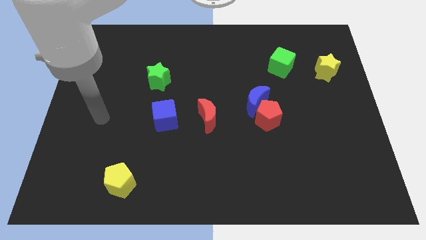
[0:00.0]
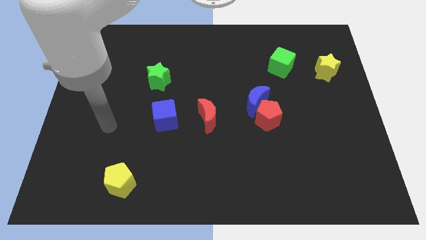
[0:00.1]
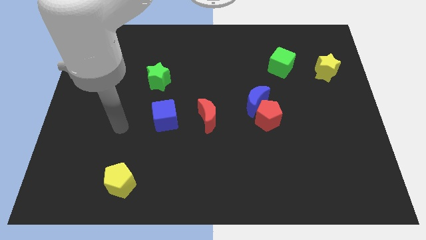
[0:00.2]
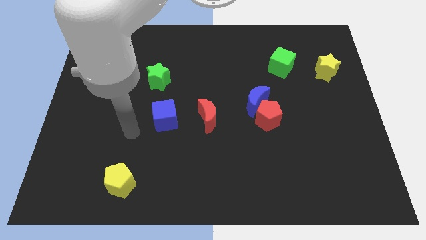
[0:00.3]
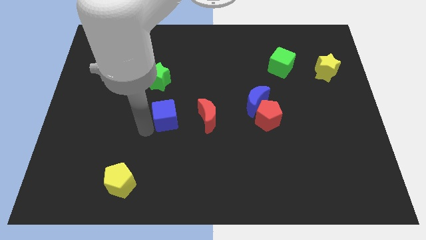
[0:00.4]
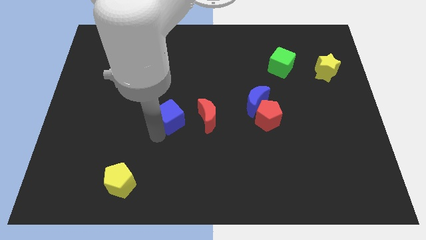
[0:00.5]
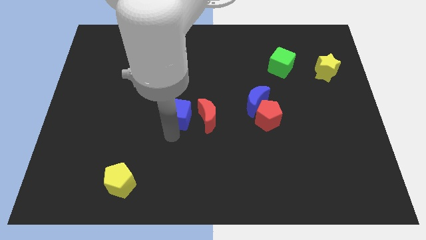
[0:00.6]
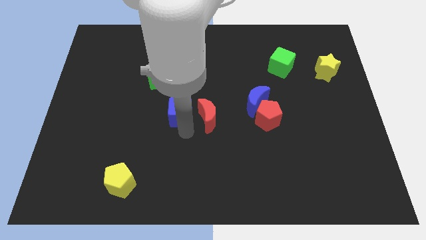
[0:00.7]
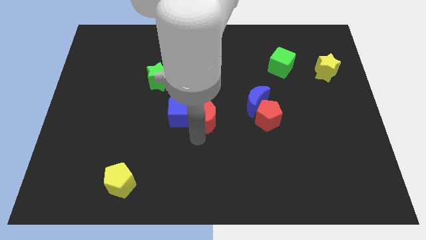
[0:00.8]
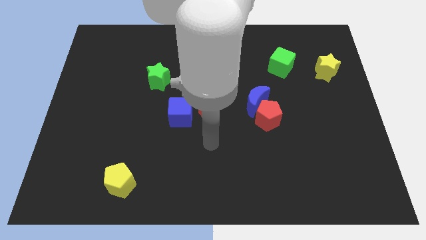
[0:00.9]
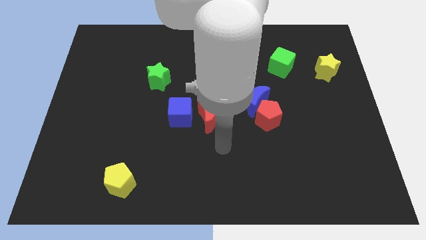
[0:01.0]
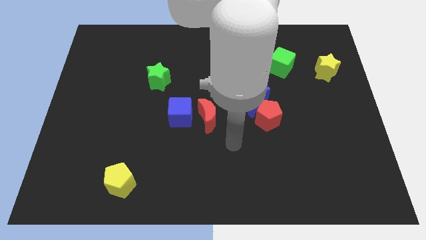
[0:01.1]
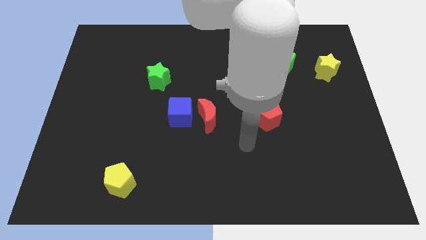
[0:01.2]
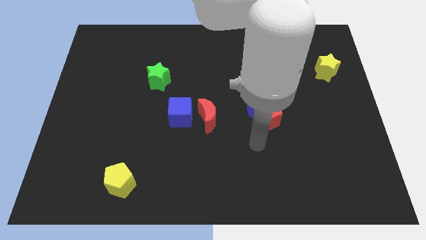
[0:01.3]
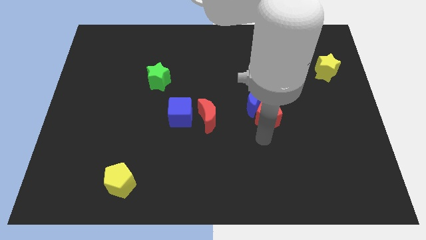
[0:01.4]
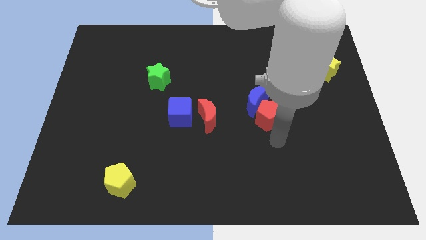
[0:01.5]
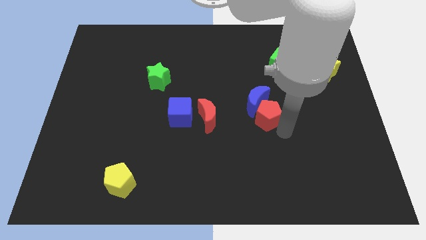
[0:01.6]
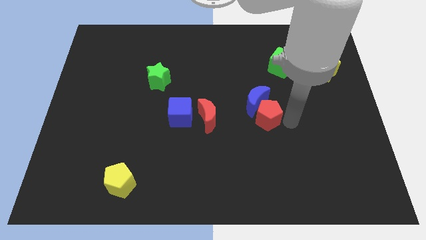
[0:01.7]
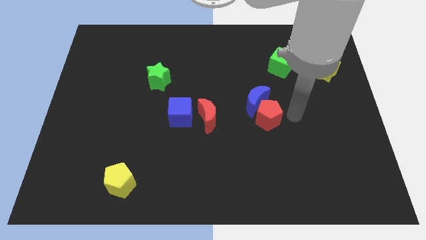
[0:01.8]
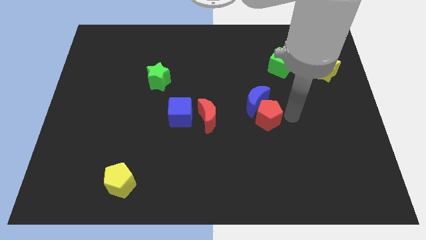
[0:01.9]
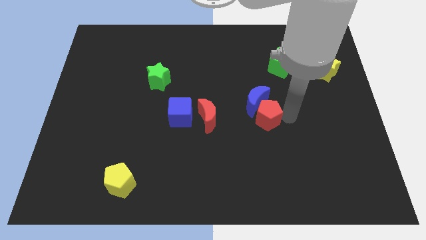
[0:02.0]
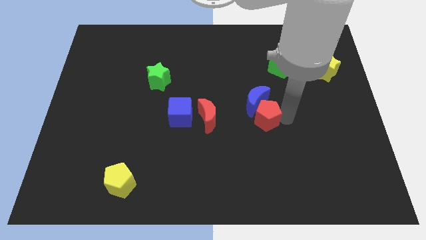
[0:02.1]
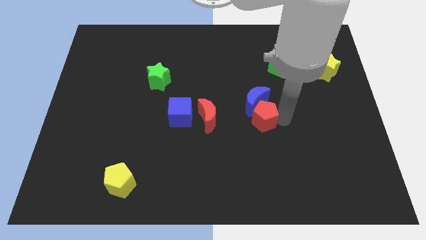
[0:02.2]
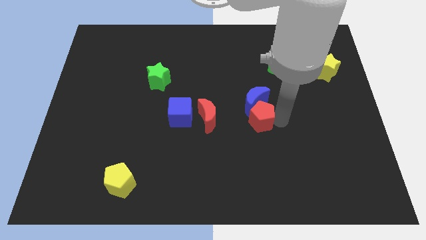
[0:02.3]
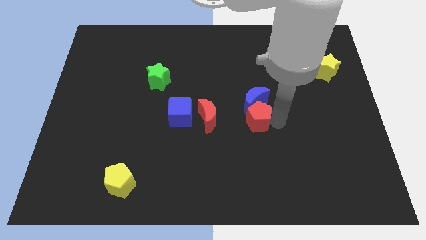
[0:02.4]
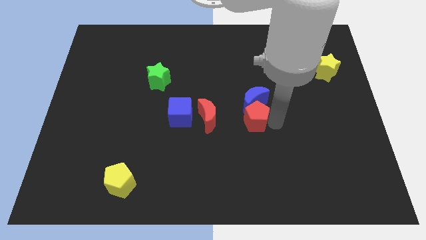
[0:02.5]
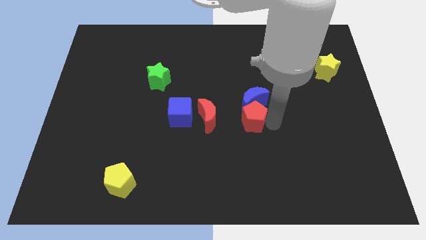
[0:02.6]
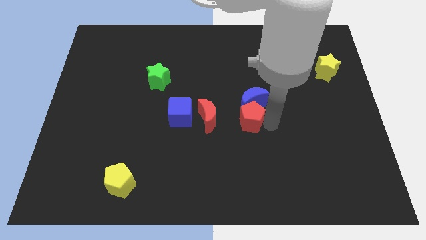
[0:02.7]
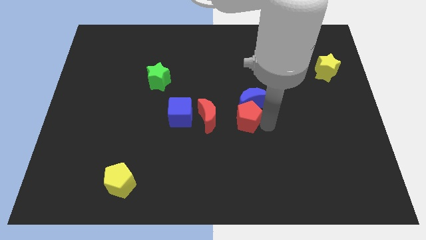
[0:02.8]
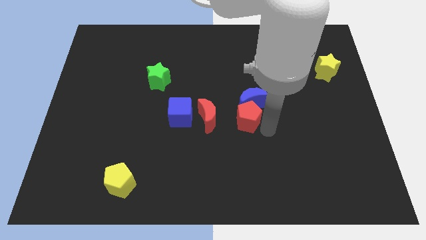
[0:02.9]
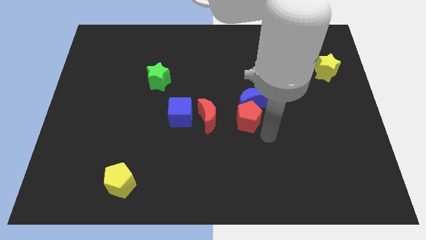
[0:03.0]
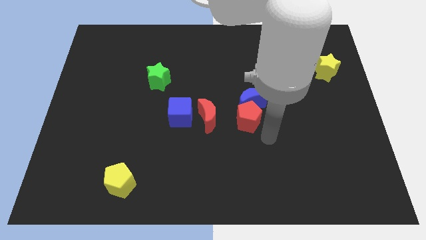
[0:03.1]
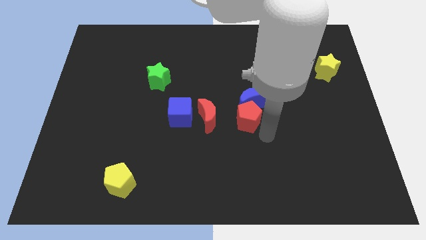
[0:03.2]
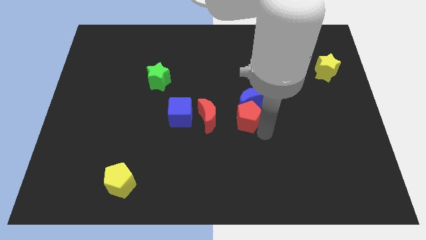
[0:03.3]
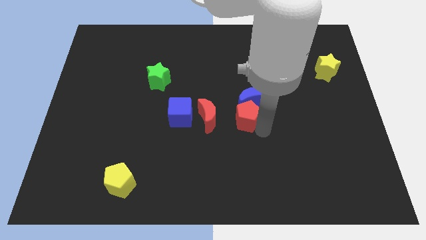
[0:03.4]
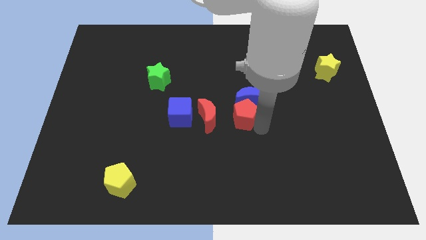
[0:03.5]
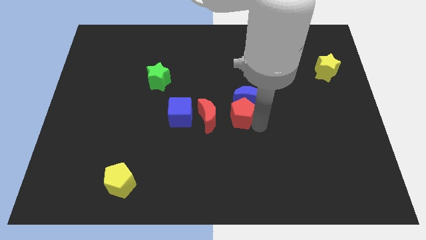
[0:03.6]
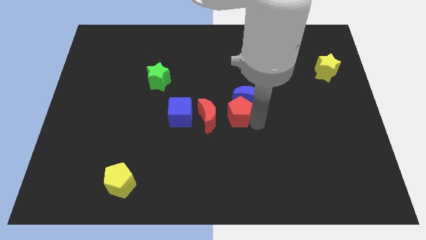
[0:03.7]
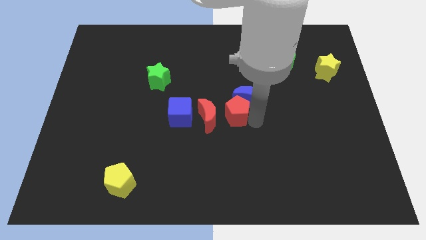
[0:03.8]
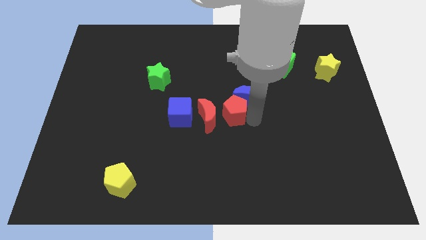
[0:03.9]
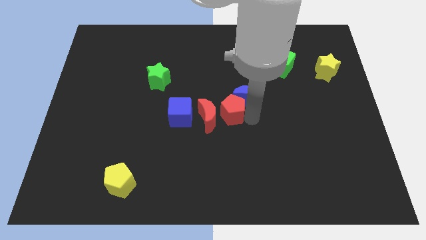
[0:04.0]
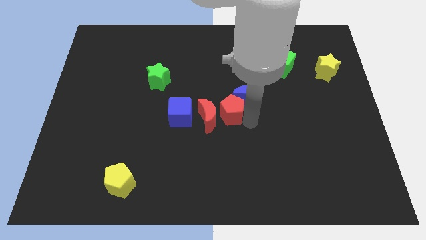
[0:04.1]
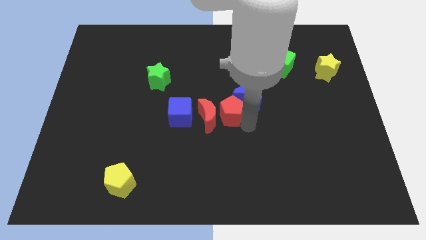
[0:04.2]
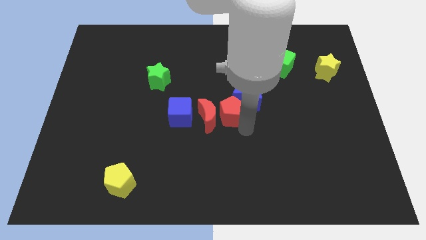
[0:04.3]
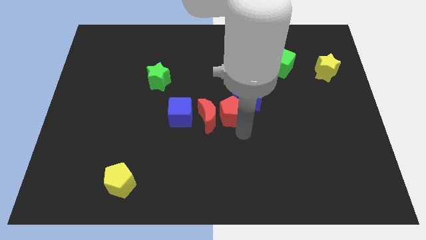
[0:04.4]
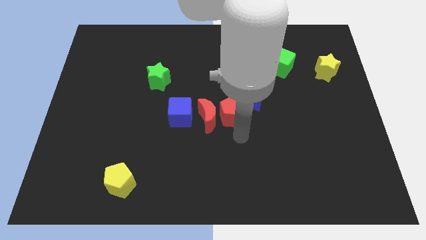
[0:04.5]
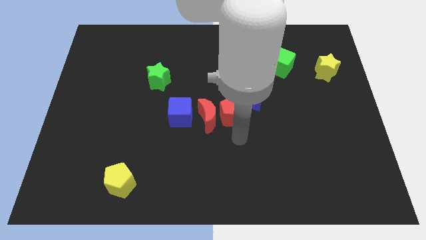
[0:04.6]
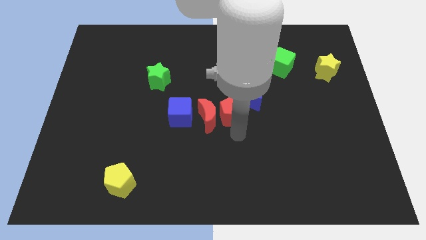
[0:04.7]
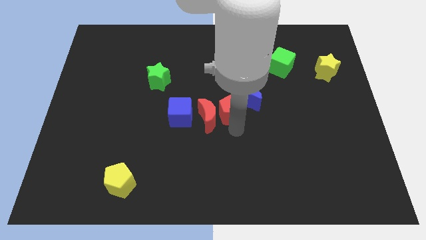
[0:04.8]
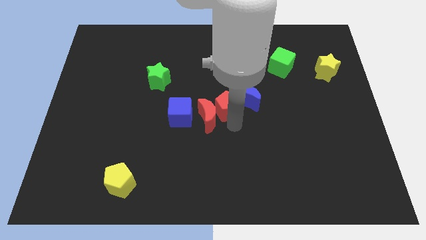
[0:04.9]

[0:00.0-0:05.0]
push the red pentagon a little bit diagonally up and left

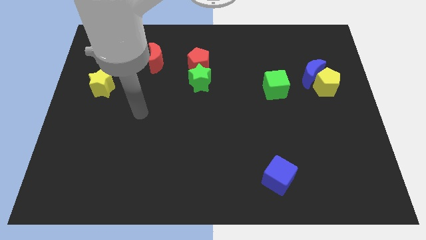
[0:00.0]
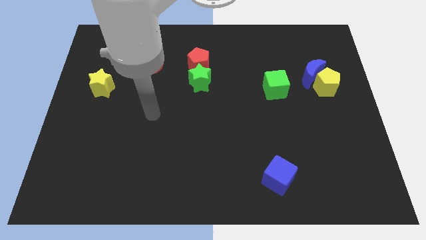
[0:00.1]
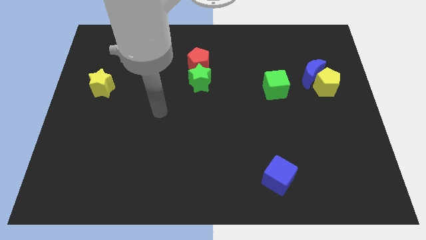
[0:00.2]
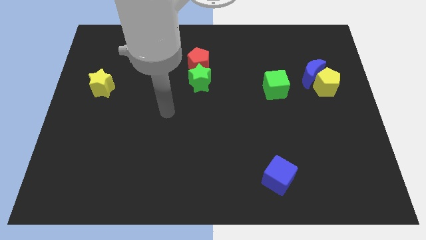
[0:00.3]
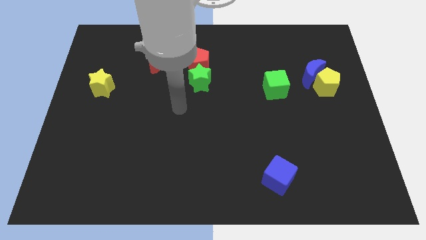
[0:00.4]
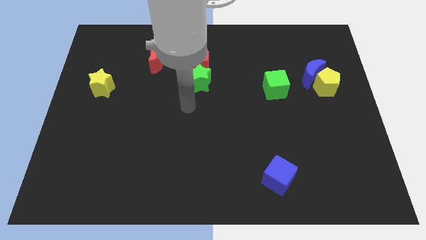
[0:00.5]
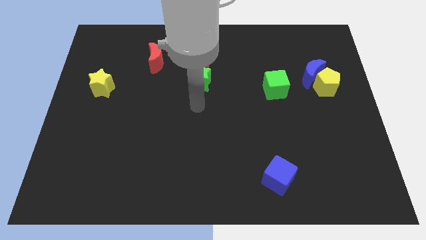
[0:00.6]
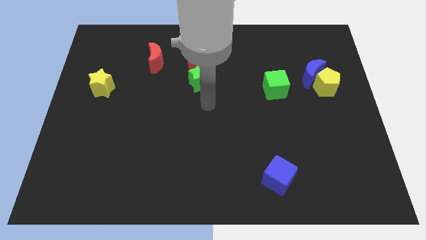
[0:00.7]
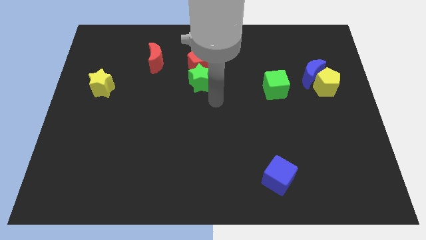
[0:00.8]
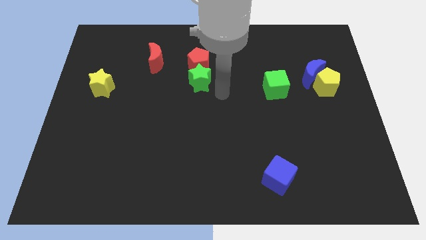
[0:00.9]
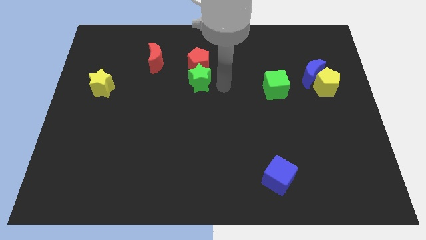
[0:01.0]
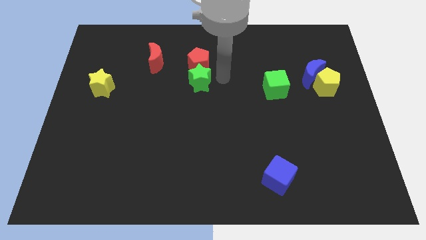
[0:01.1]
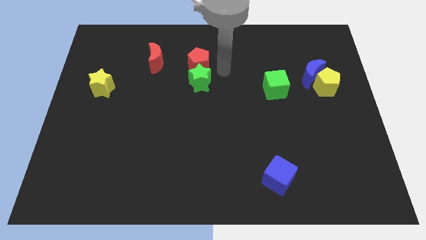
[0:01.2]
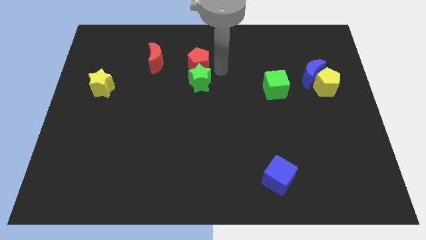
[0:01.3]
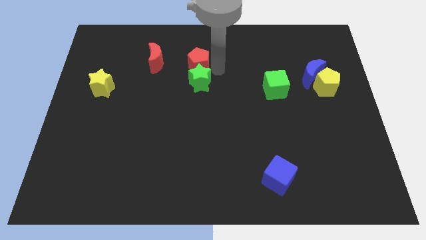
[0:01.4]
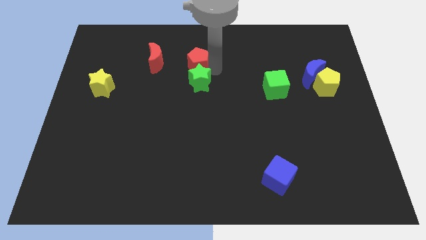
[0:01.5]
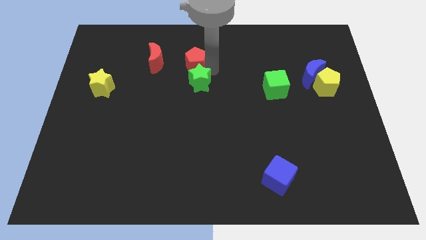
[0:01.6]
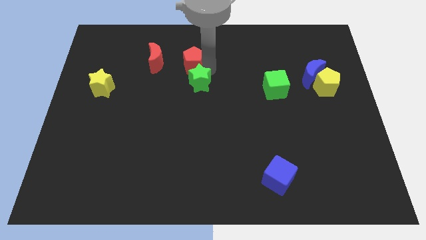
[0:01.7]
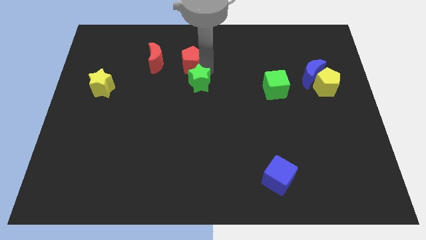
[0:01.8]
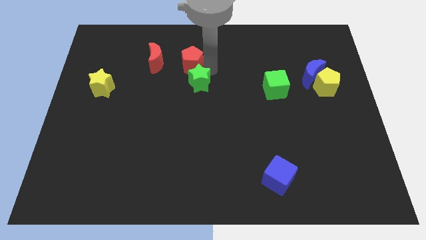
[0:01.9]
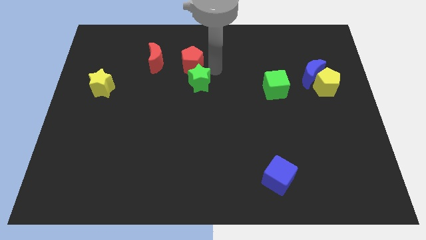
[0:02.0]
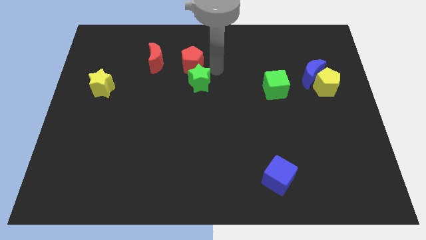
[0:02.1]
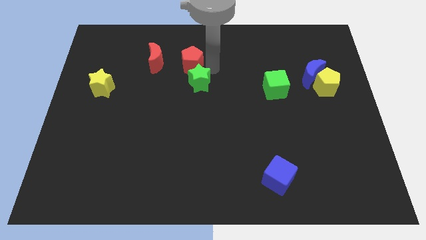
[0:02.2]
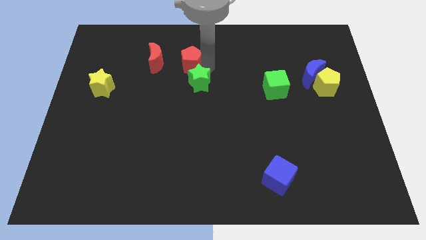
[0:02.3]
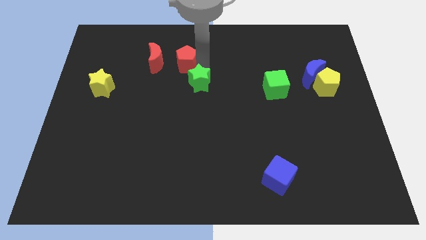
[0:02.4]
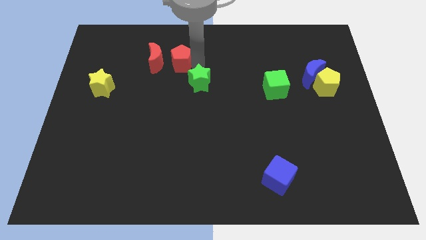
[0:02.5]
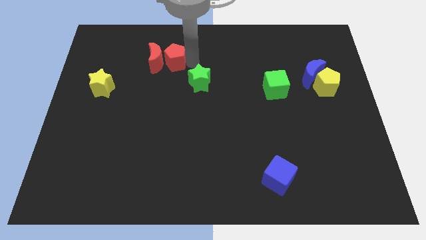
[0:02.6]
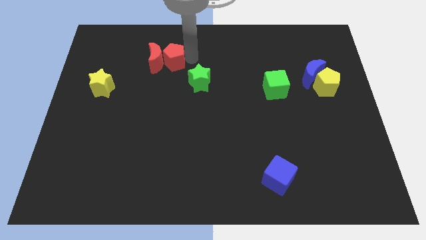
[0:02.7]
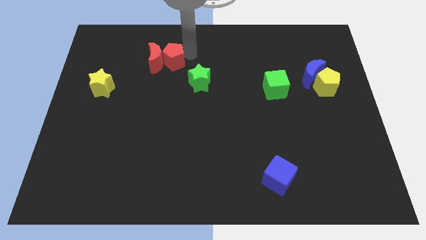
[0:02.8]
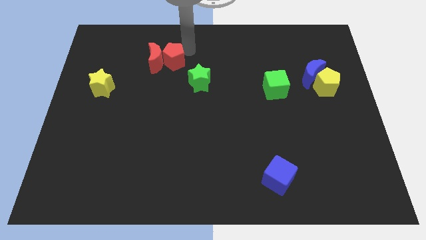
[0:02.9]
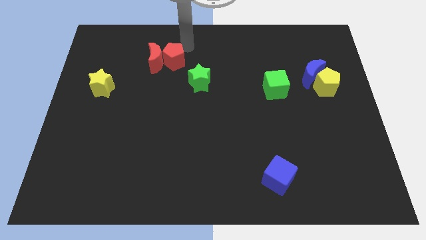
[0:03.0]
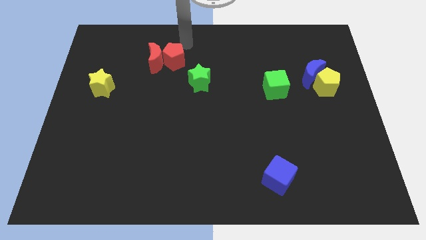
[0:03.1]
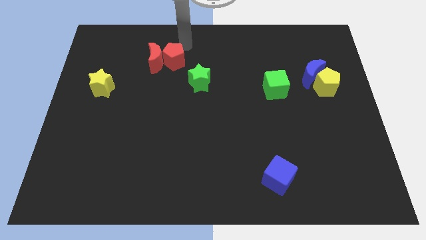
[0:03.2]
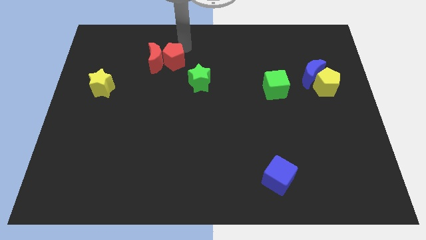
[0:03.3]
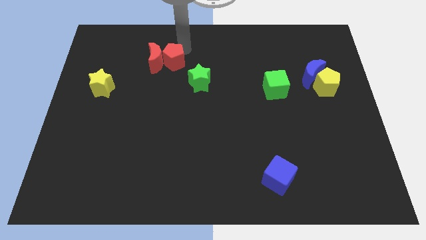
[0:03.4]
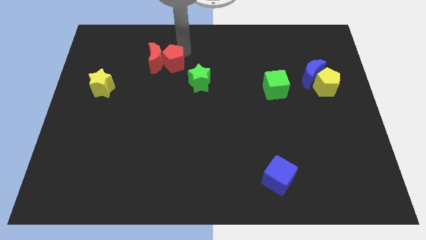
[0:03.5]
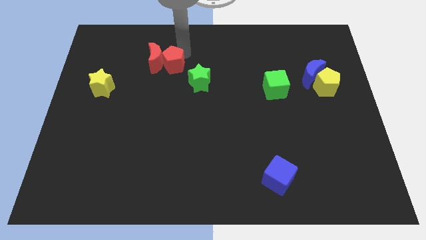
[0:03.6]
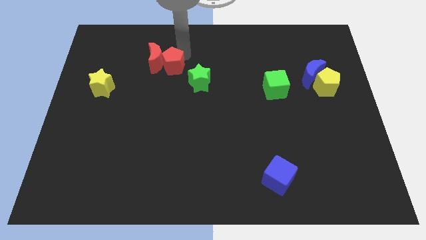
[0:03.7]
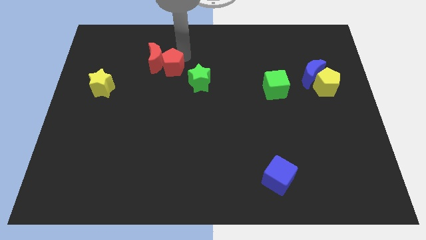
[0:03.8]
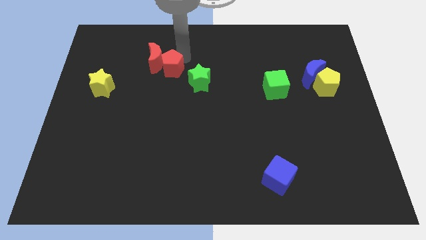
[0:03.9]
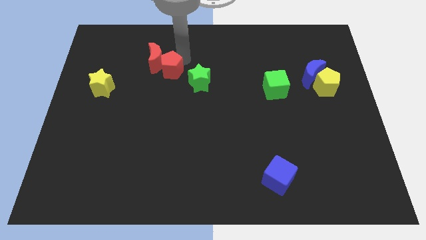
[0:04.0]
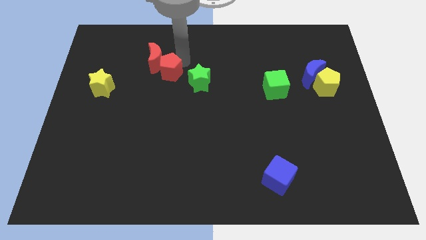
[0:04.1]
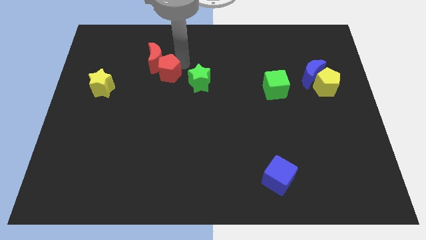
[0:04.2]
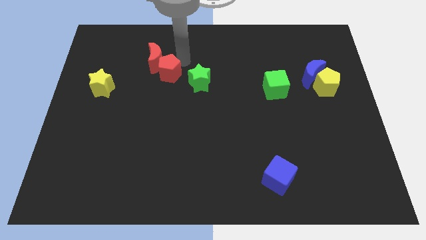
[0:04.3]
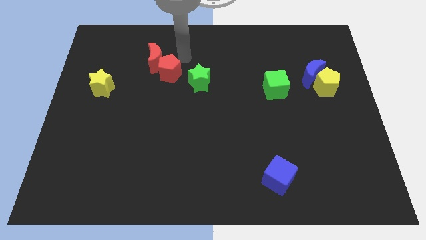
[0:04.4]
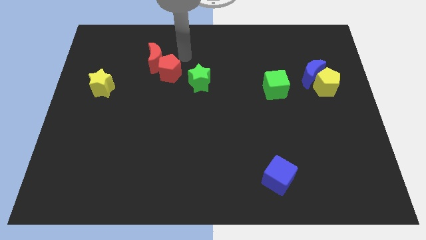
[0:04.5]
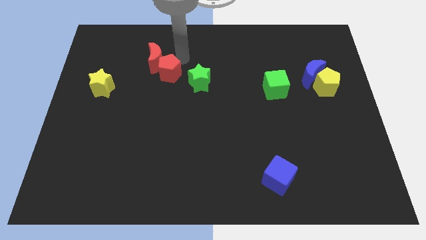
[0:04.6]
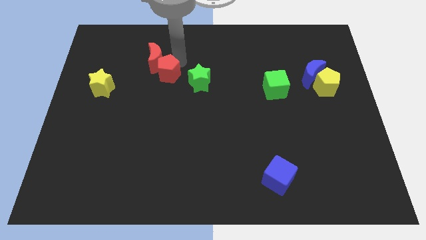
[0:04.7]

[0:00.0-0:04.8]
slightly push the red pentagon down and left diagonally
